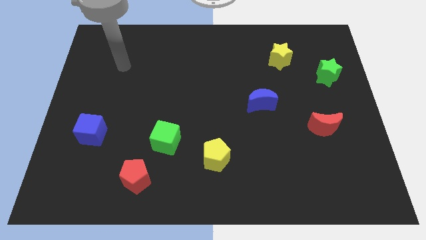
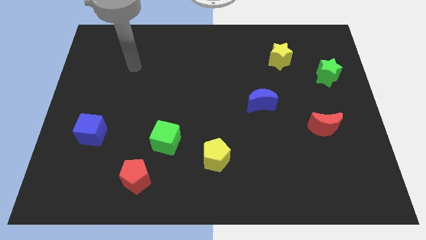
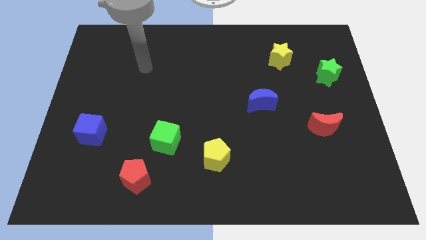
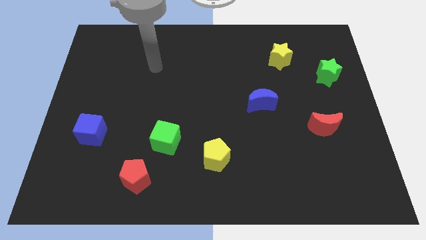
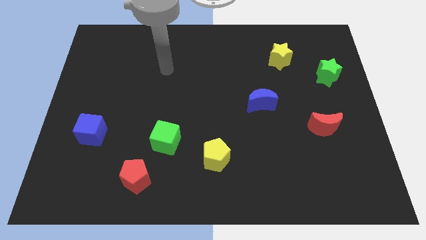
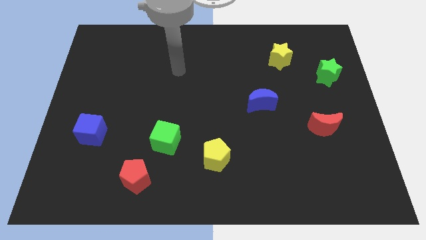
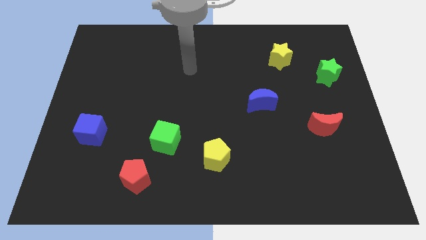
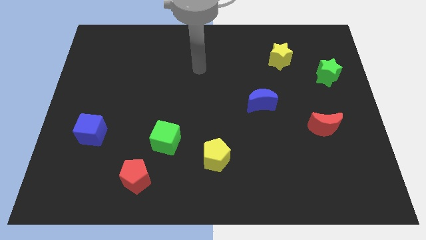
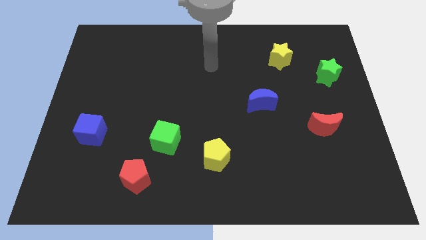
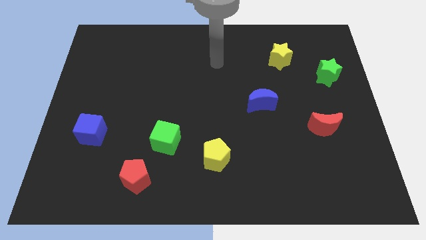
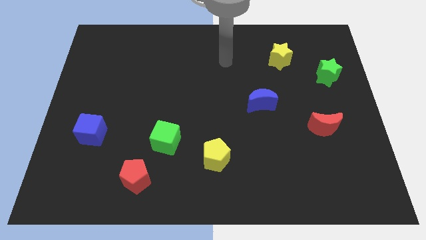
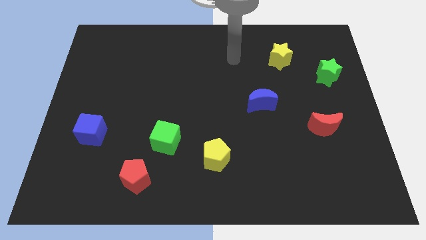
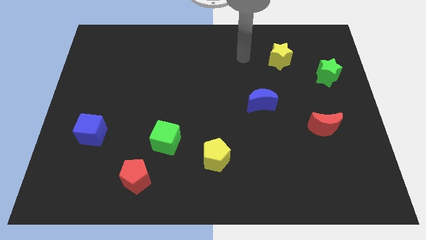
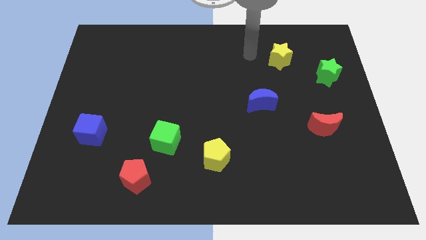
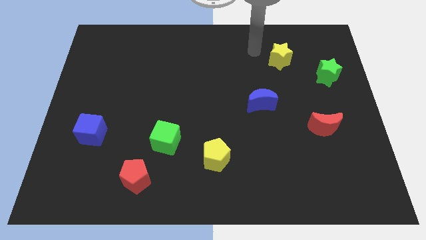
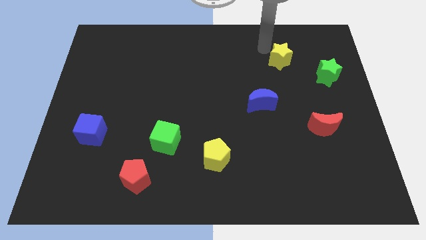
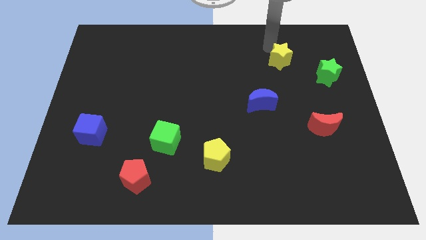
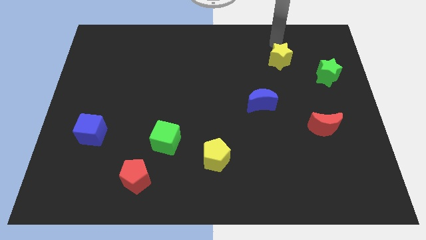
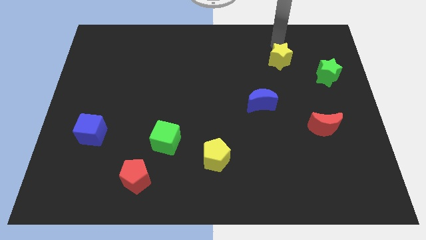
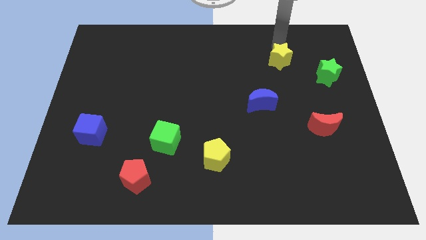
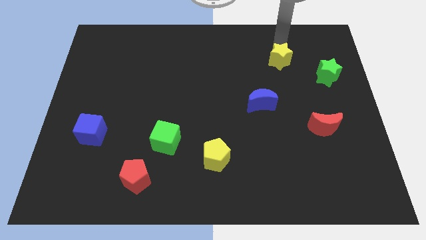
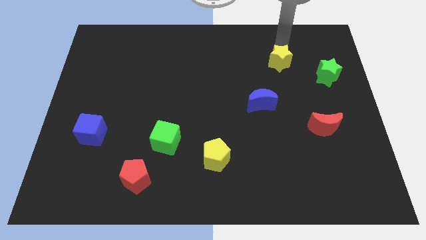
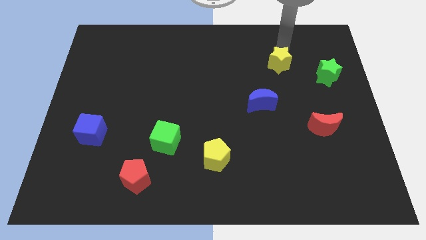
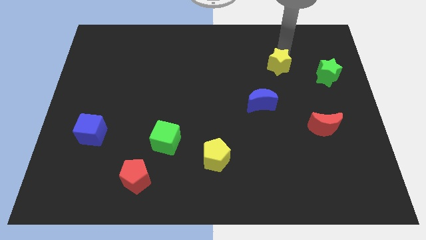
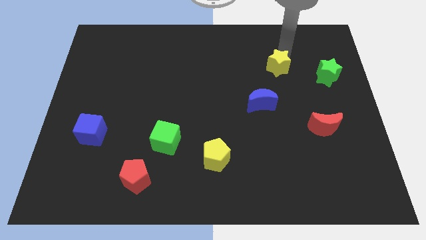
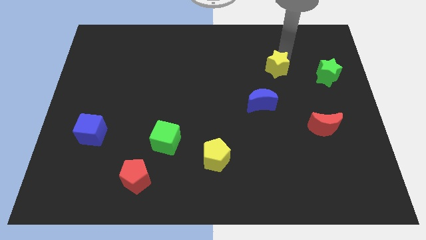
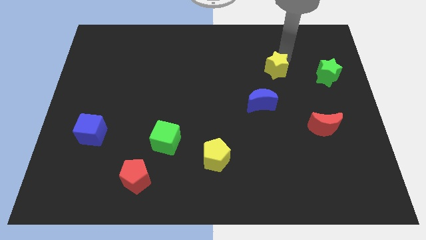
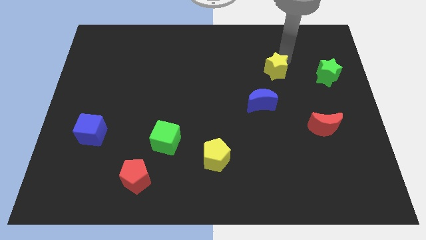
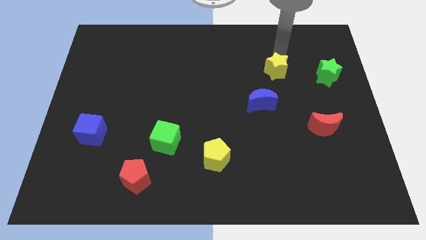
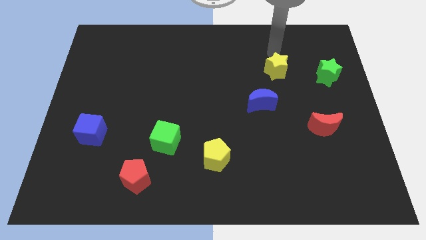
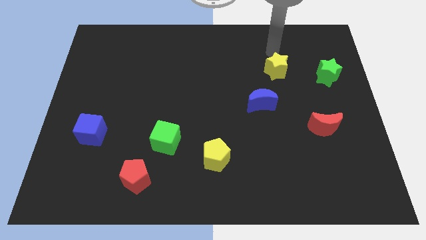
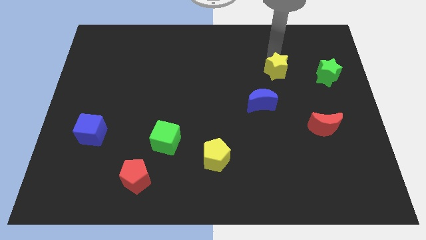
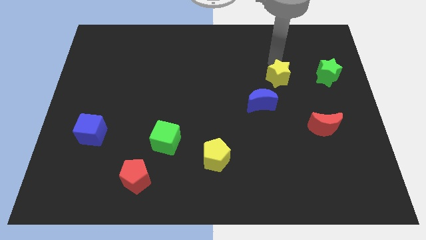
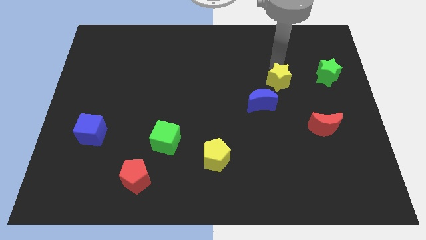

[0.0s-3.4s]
slightly slide the yellow star downwards

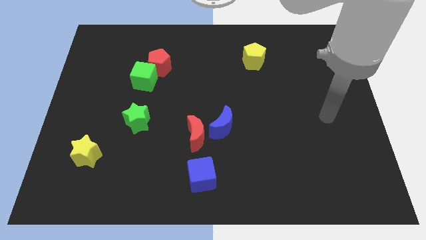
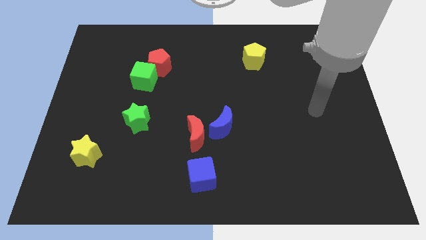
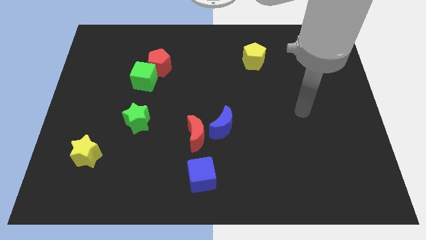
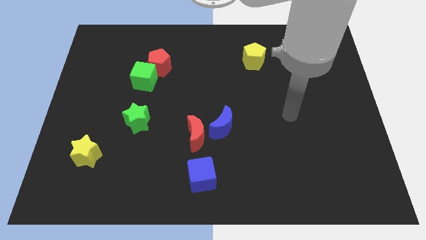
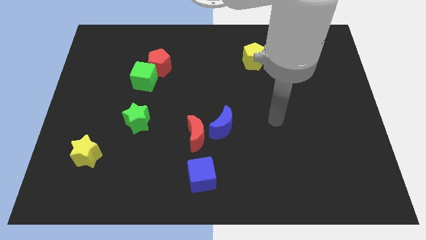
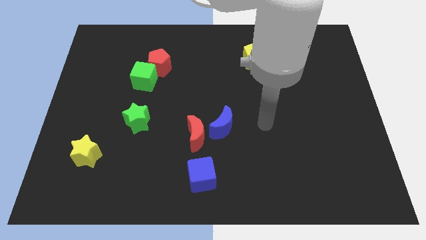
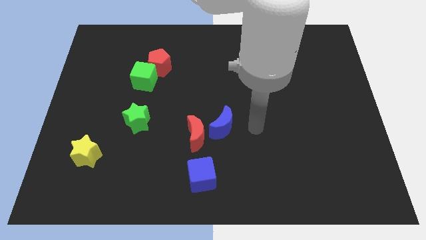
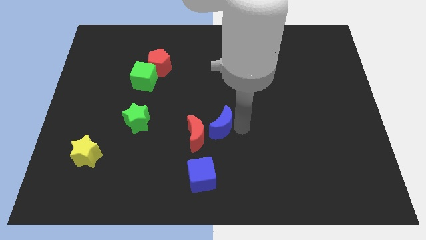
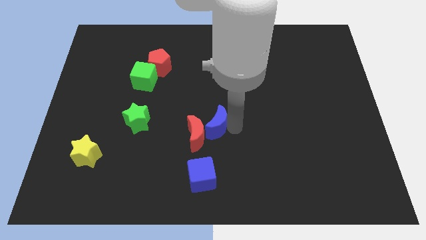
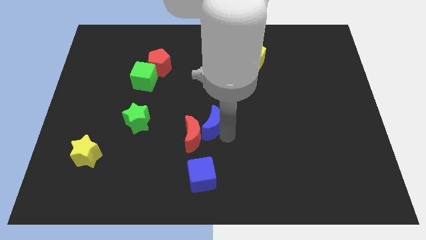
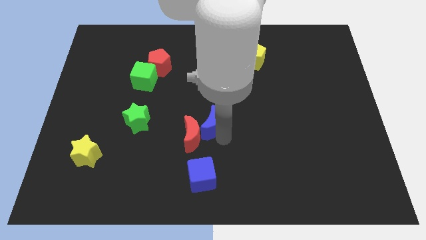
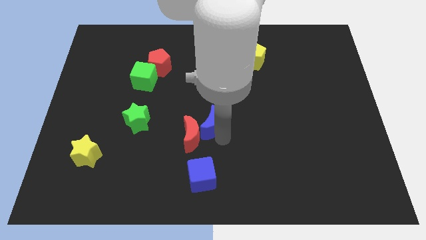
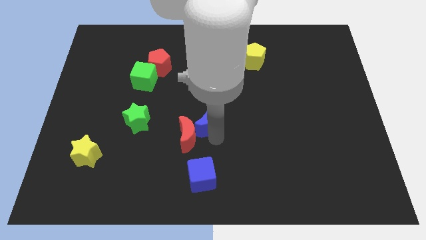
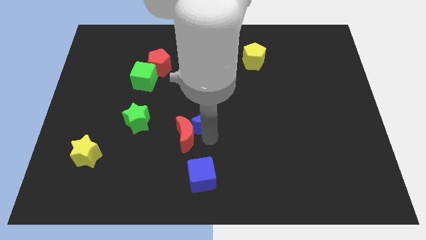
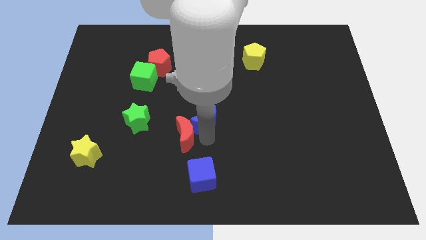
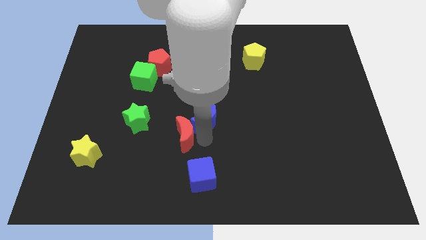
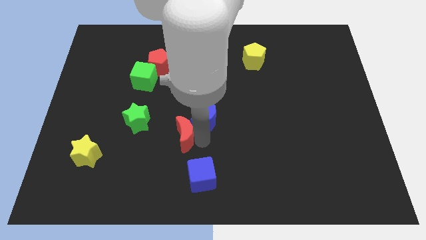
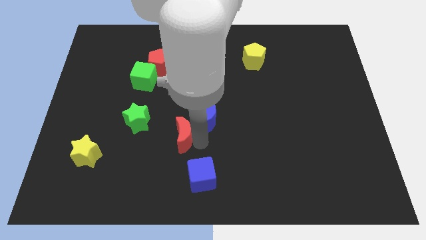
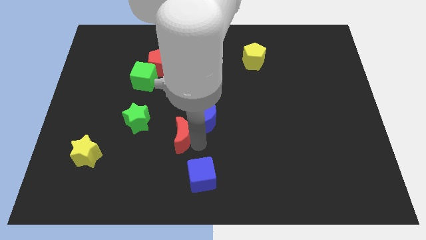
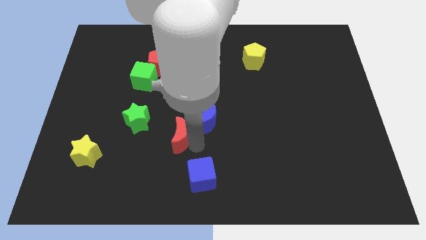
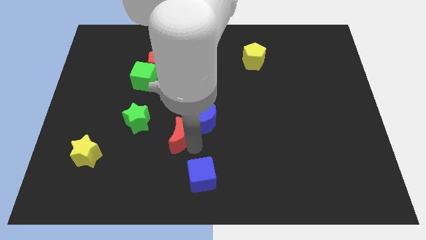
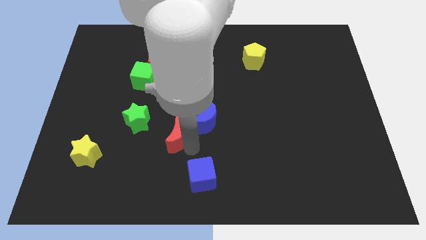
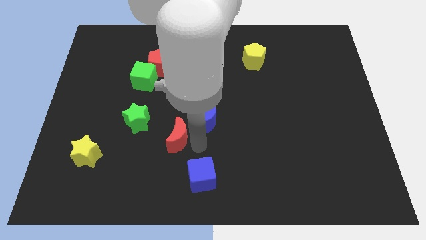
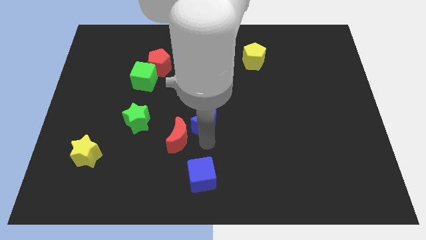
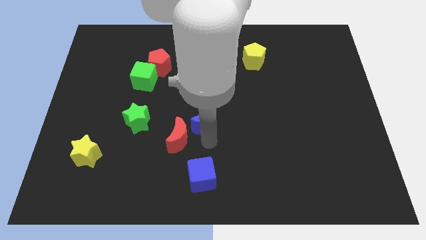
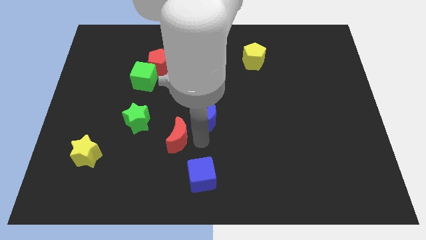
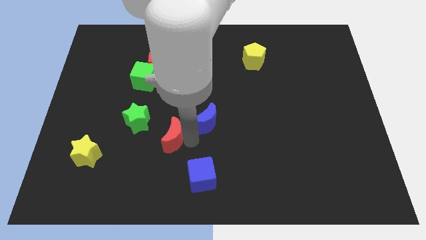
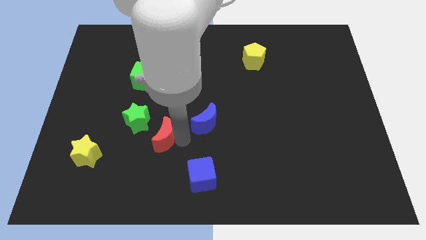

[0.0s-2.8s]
slightly push the red moon left

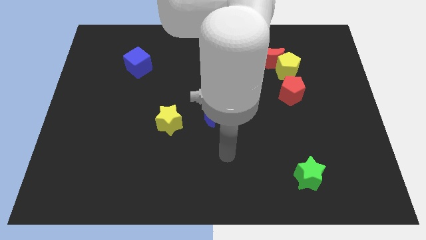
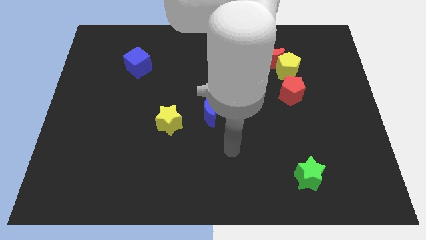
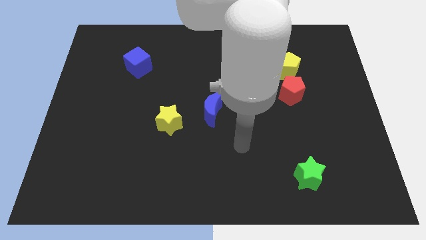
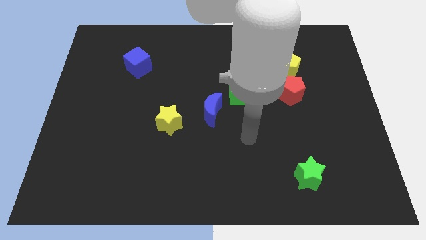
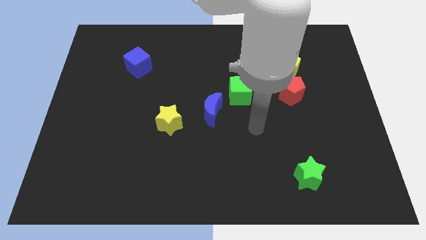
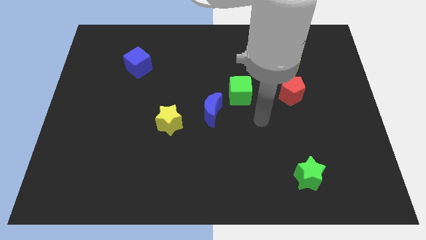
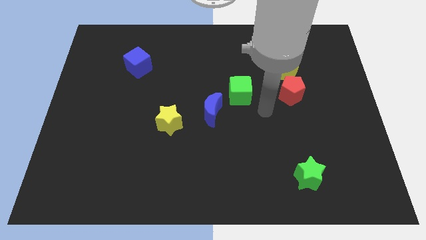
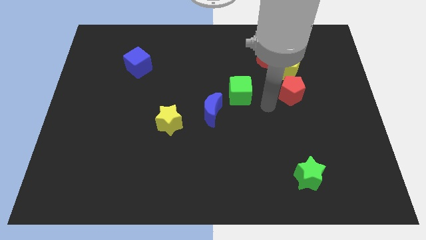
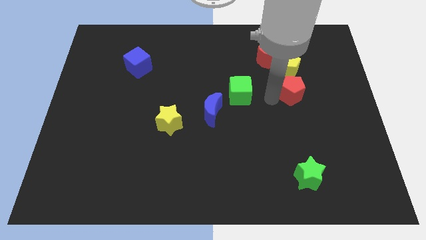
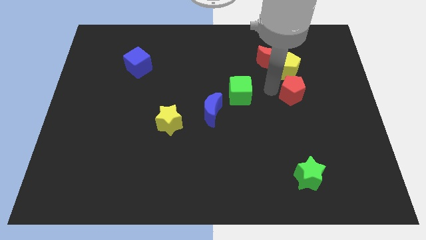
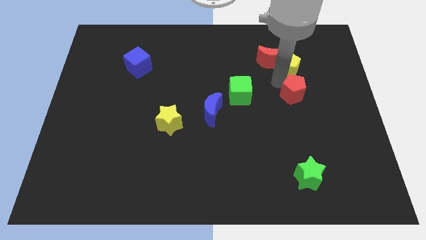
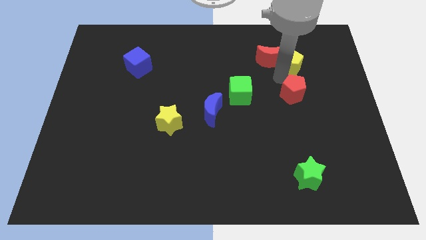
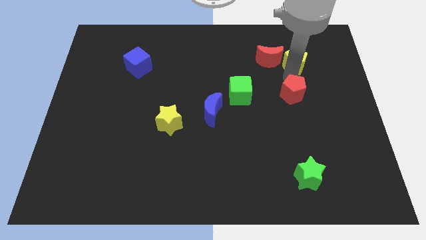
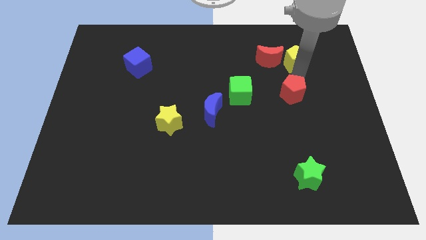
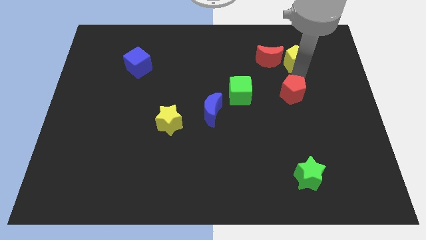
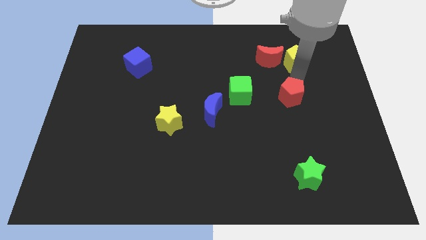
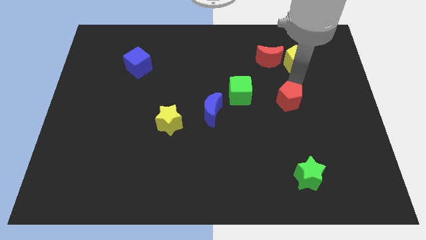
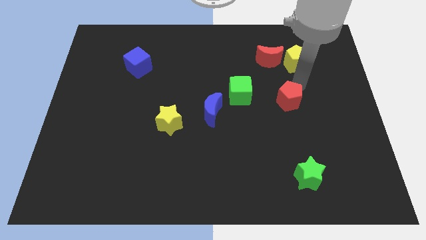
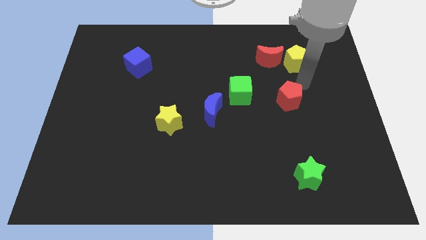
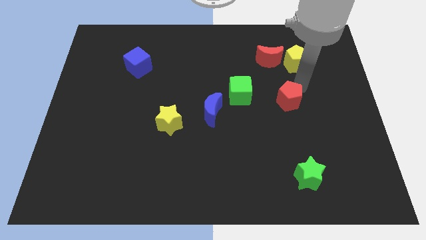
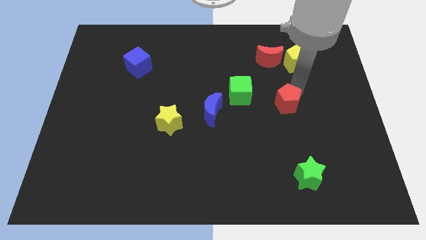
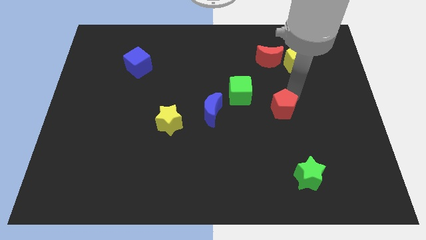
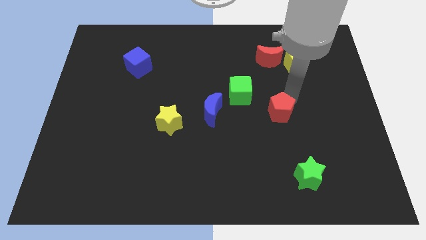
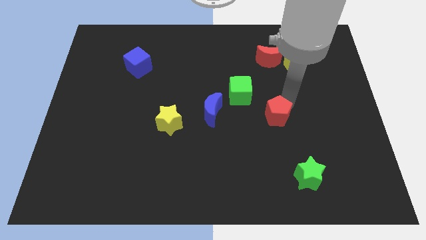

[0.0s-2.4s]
push the red pentagon diagonally downwards and left somewhat
